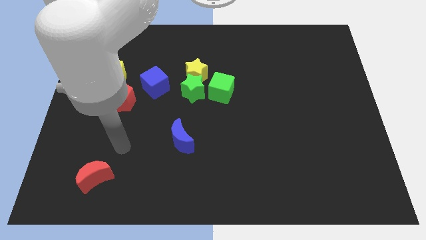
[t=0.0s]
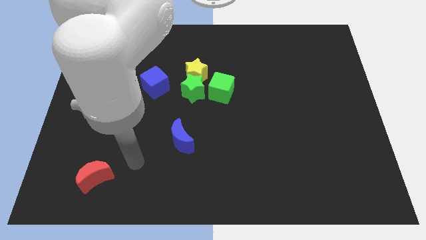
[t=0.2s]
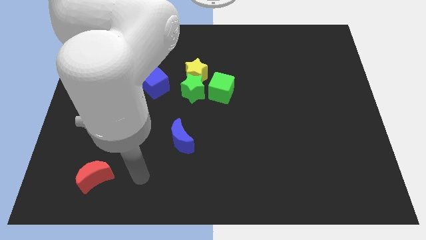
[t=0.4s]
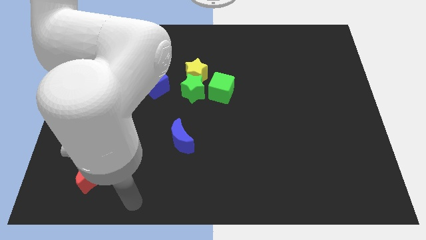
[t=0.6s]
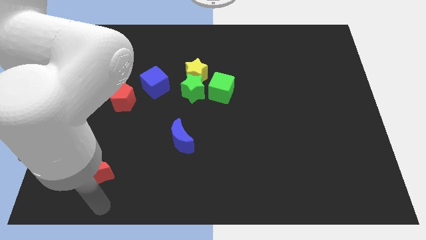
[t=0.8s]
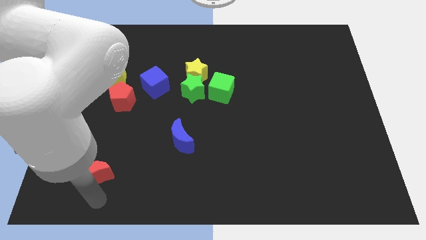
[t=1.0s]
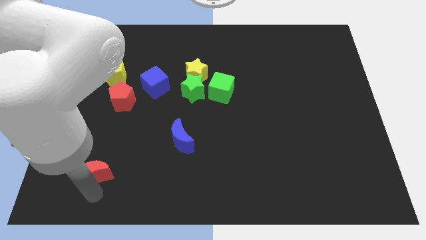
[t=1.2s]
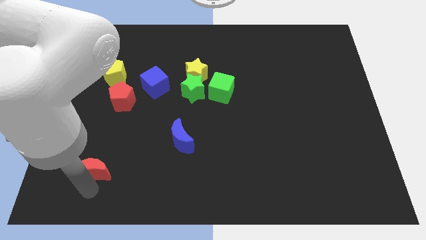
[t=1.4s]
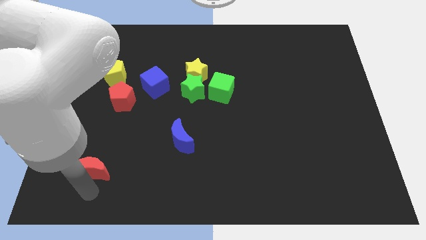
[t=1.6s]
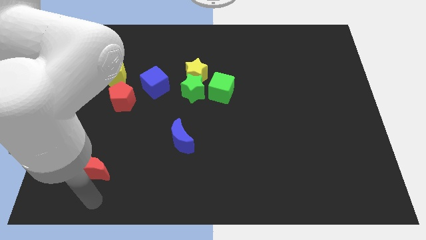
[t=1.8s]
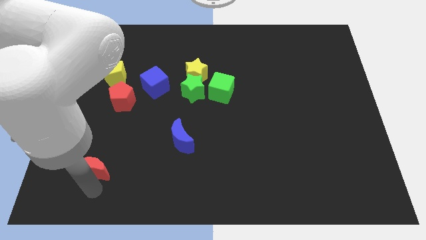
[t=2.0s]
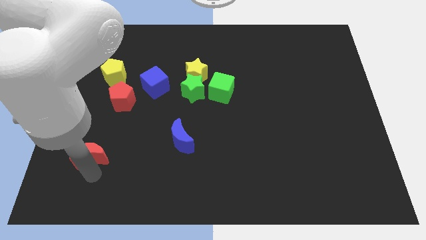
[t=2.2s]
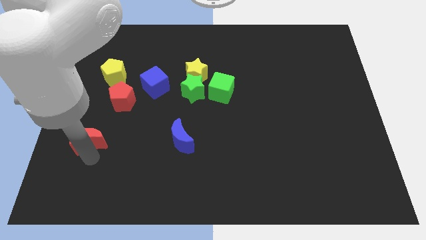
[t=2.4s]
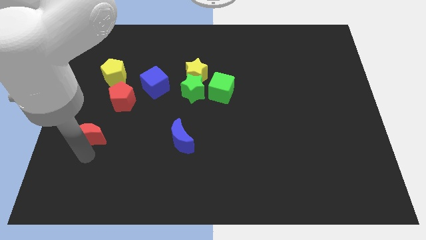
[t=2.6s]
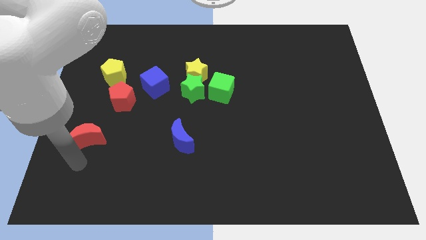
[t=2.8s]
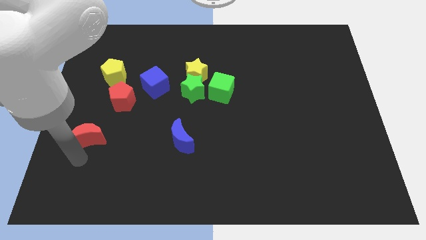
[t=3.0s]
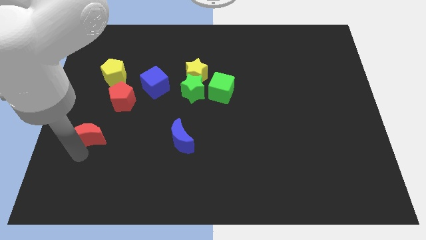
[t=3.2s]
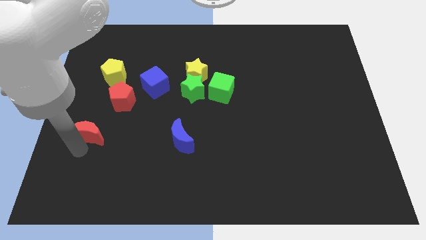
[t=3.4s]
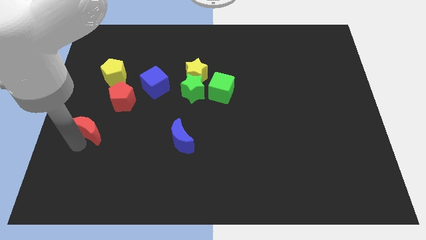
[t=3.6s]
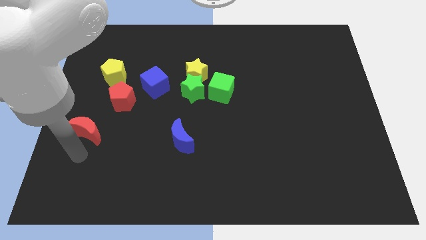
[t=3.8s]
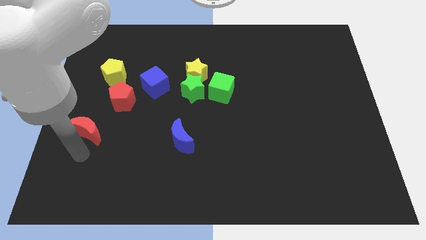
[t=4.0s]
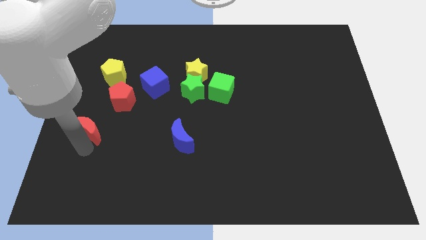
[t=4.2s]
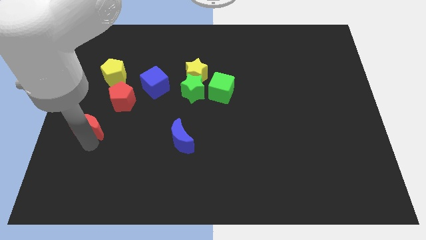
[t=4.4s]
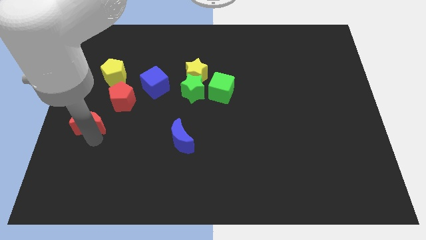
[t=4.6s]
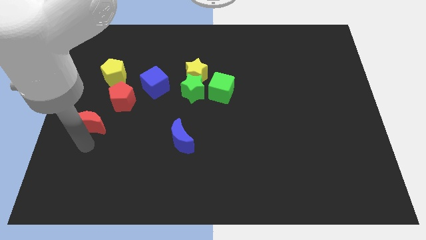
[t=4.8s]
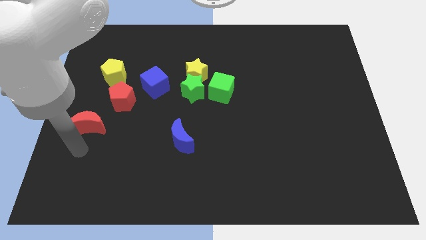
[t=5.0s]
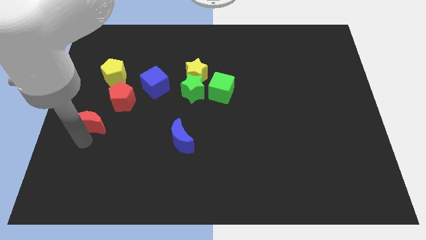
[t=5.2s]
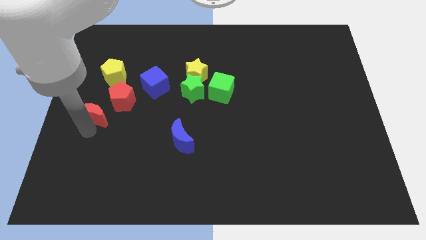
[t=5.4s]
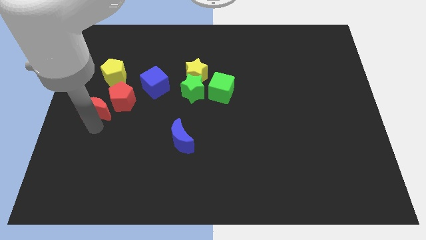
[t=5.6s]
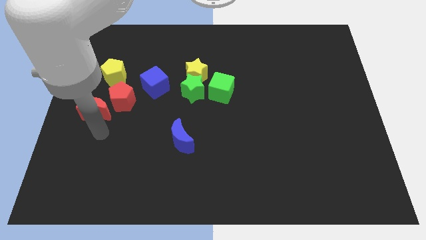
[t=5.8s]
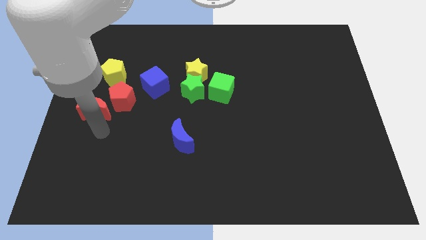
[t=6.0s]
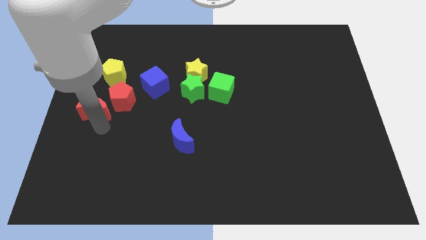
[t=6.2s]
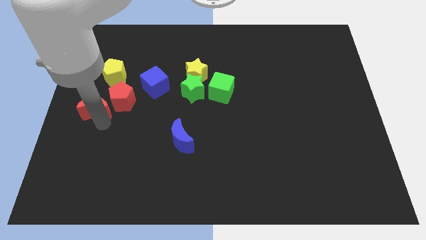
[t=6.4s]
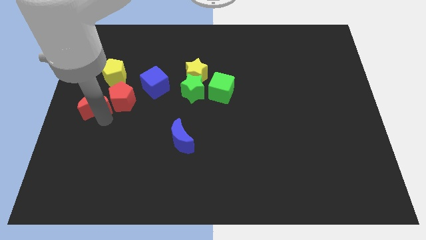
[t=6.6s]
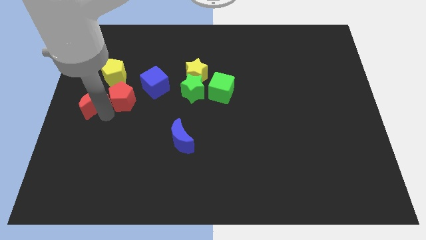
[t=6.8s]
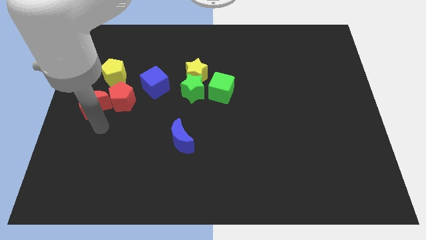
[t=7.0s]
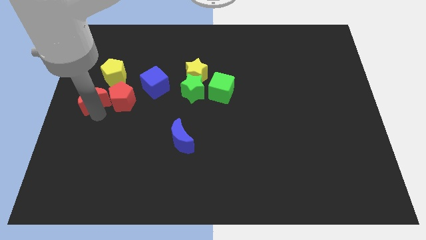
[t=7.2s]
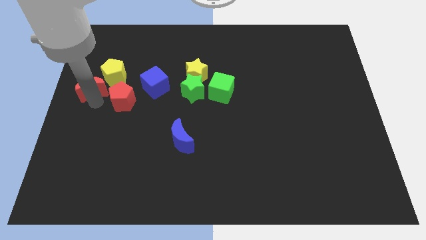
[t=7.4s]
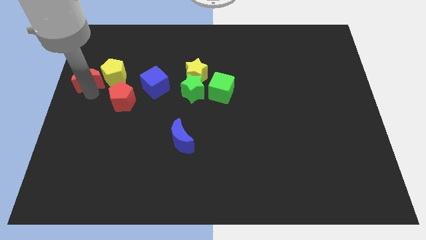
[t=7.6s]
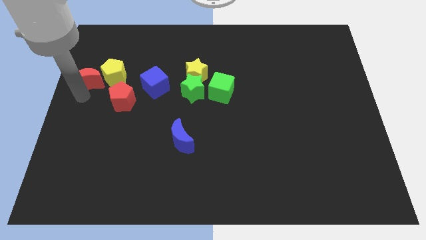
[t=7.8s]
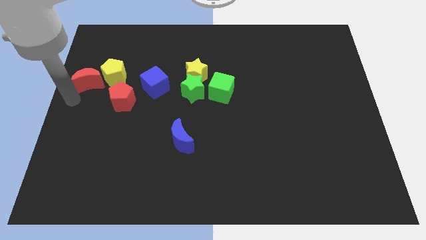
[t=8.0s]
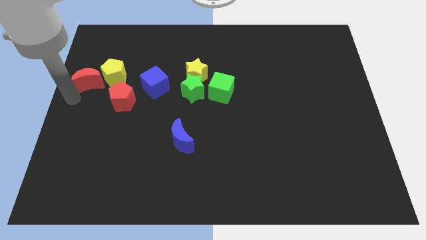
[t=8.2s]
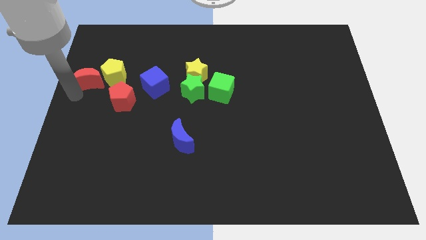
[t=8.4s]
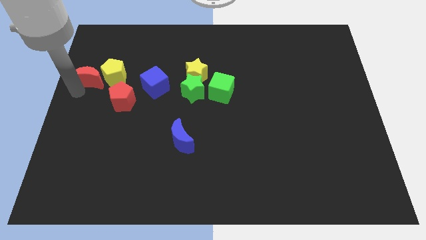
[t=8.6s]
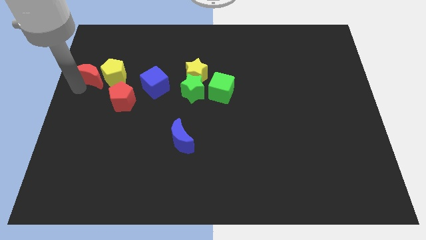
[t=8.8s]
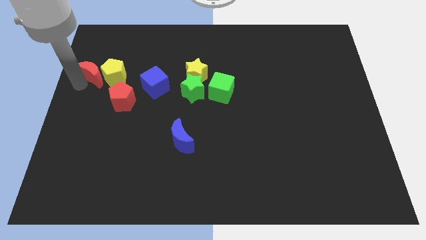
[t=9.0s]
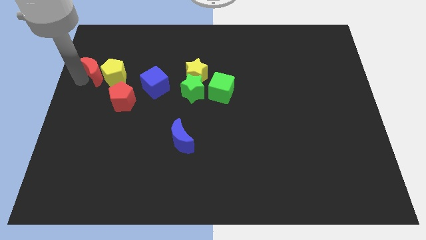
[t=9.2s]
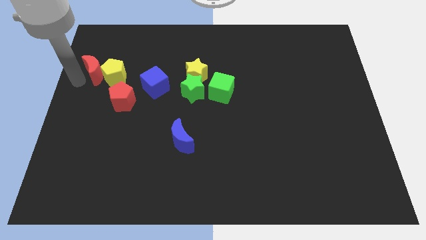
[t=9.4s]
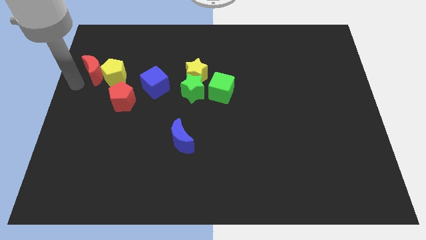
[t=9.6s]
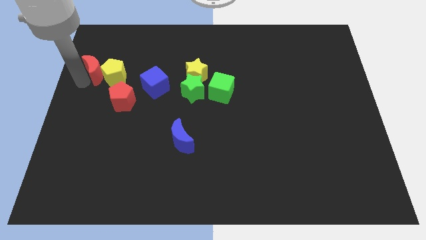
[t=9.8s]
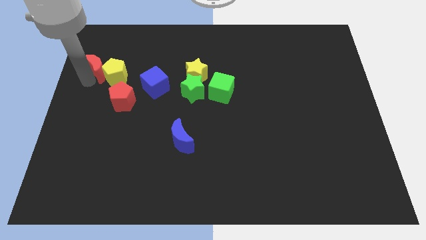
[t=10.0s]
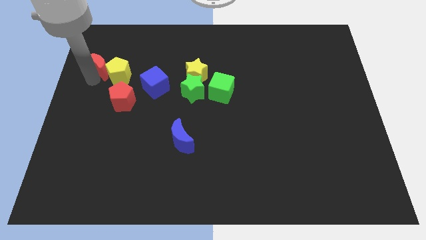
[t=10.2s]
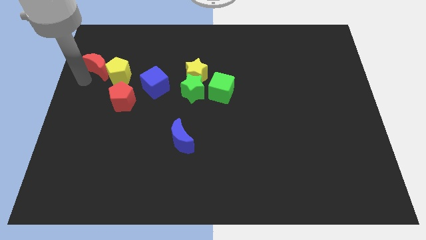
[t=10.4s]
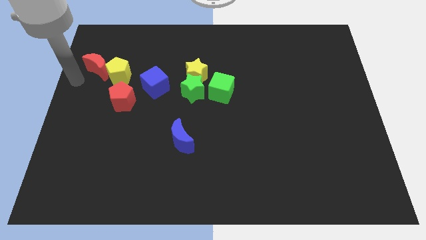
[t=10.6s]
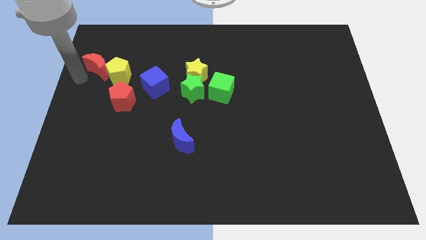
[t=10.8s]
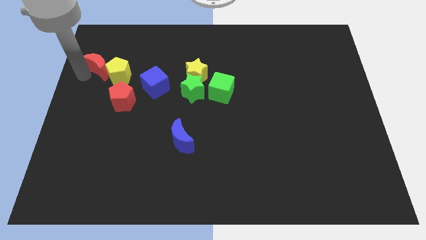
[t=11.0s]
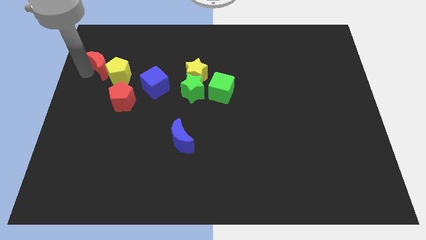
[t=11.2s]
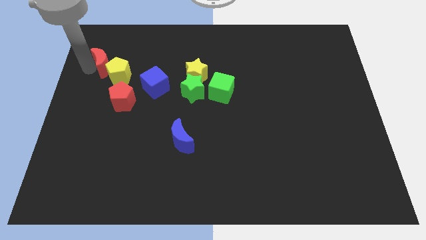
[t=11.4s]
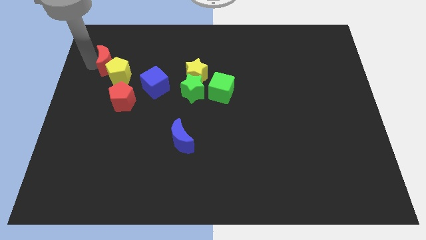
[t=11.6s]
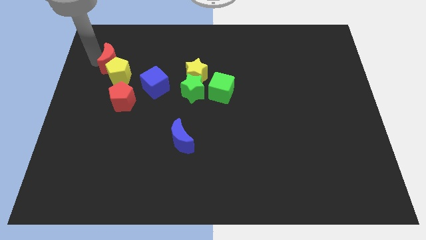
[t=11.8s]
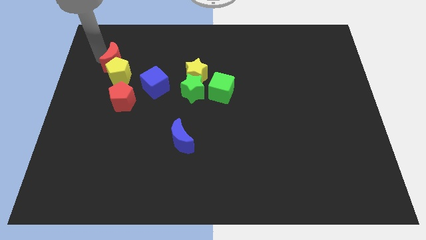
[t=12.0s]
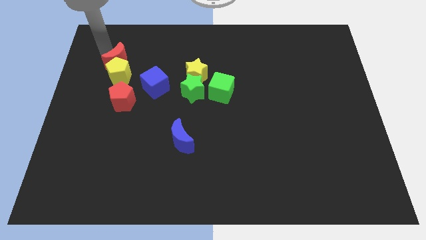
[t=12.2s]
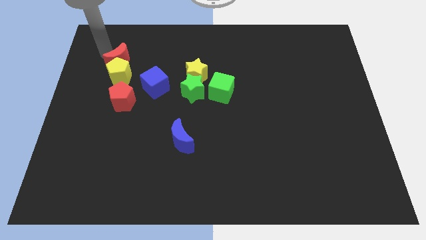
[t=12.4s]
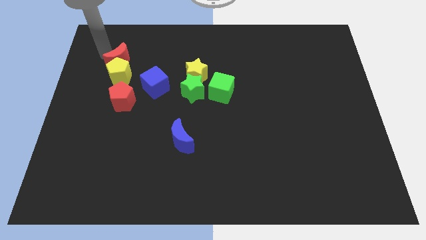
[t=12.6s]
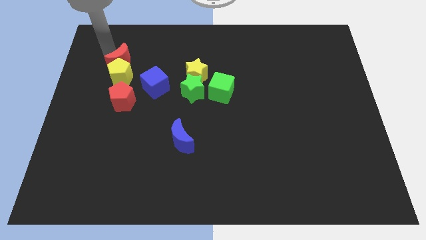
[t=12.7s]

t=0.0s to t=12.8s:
put the red moon diagonally up and to the left of the blue cube
